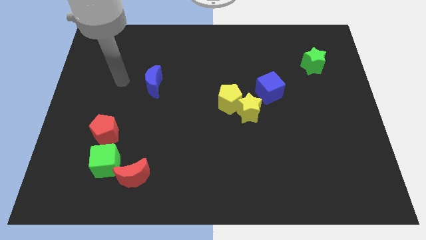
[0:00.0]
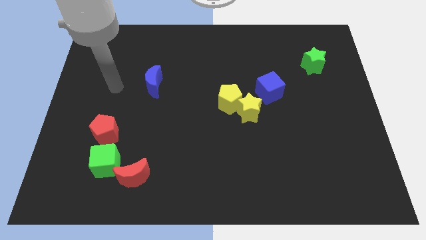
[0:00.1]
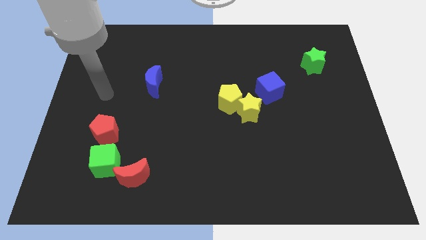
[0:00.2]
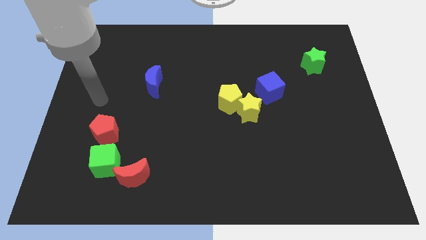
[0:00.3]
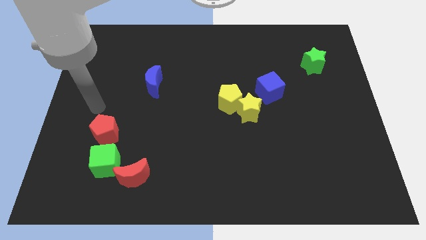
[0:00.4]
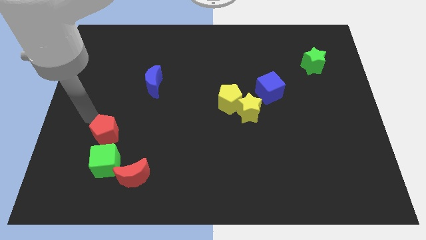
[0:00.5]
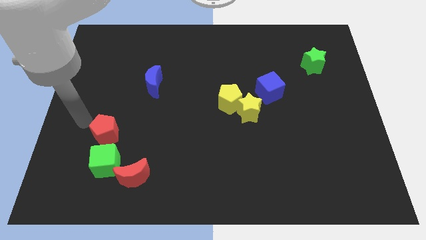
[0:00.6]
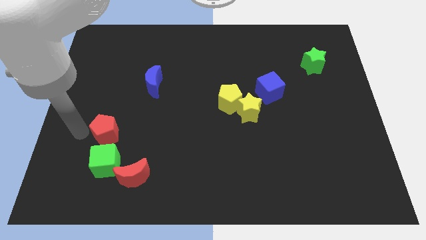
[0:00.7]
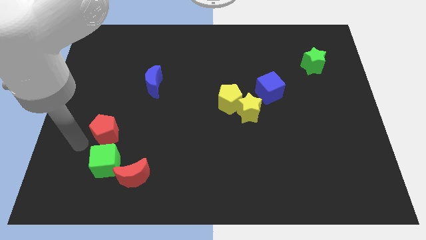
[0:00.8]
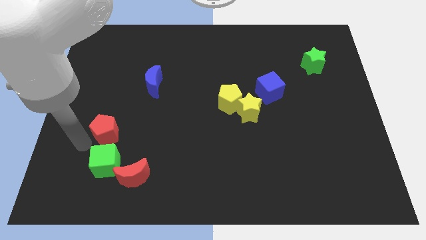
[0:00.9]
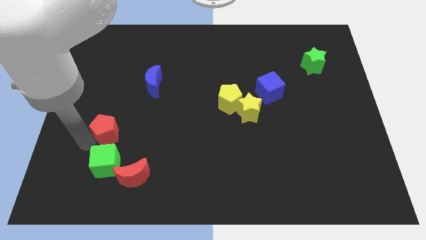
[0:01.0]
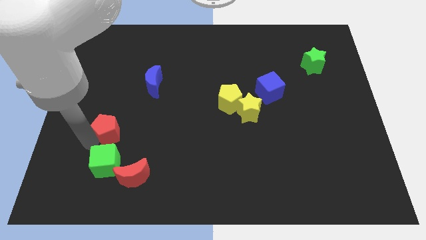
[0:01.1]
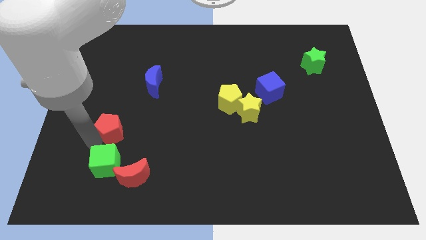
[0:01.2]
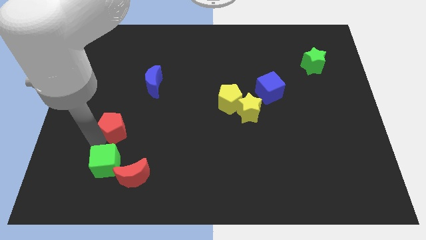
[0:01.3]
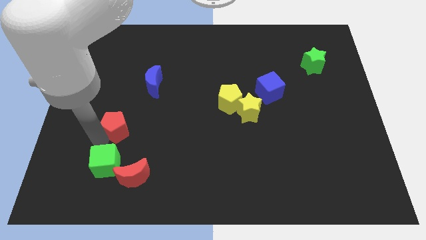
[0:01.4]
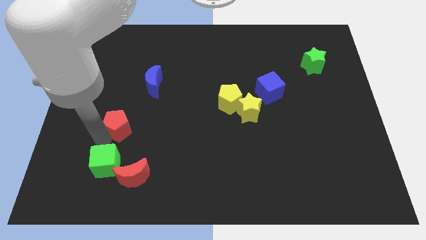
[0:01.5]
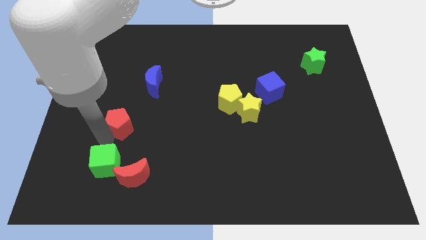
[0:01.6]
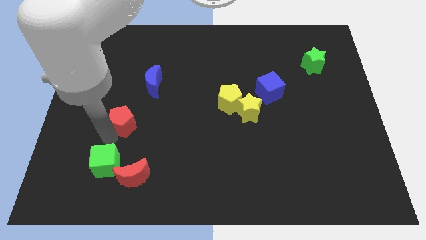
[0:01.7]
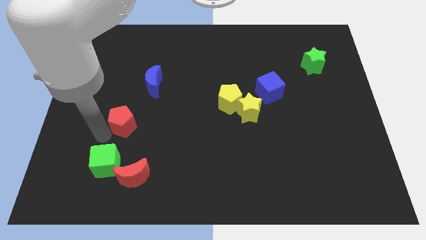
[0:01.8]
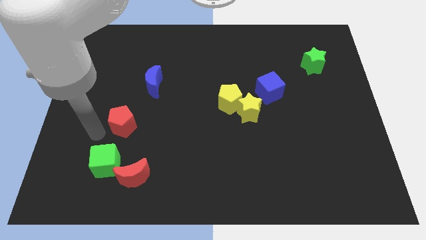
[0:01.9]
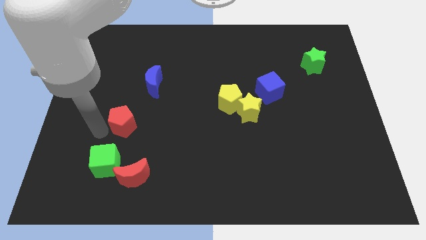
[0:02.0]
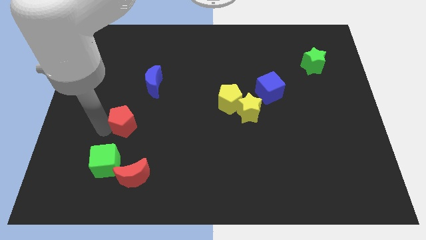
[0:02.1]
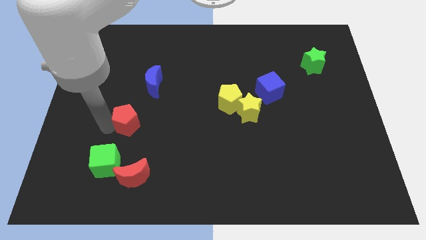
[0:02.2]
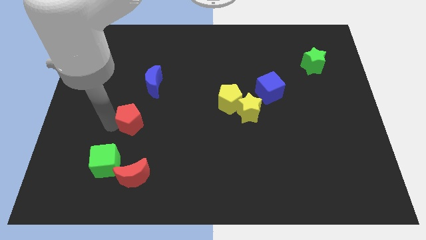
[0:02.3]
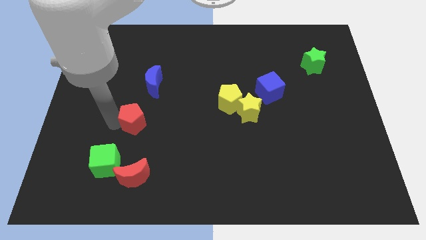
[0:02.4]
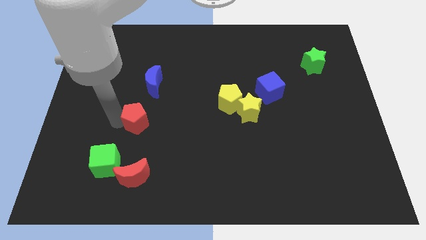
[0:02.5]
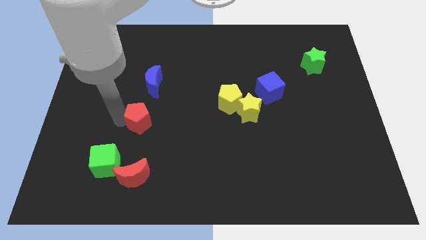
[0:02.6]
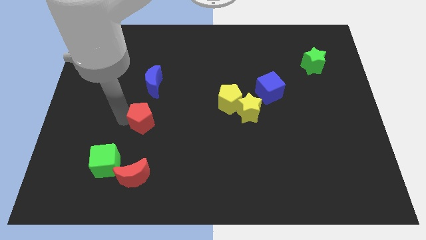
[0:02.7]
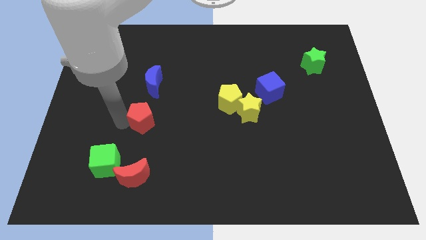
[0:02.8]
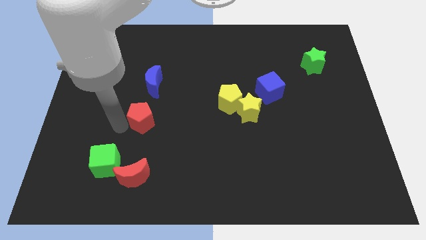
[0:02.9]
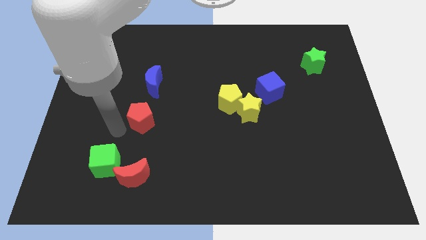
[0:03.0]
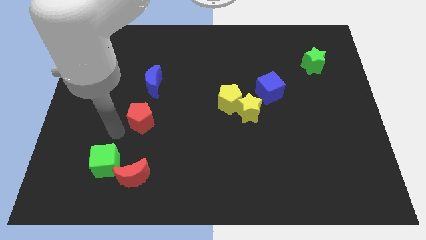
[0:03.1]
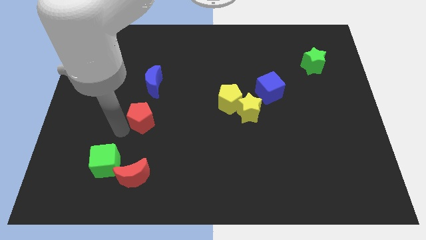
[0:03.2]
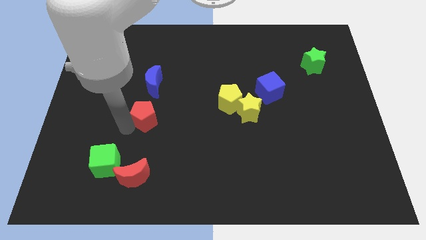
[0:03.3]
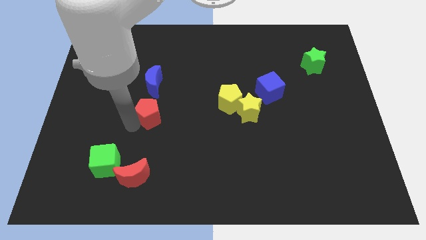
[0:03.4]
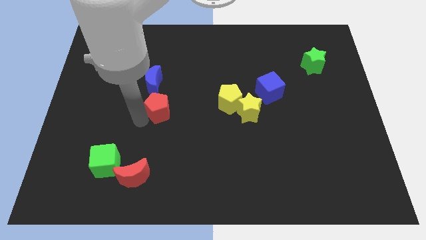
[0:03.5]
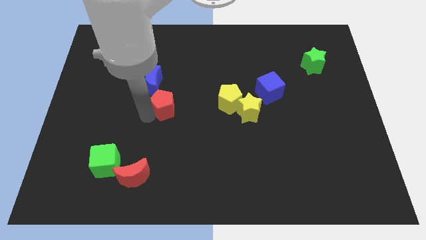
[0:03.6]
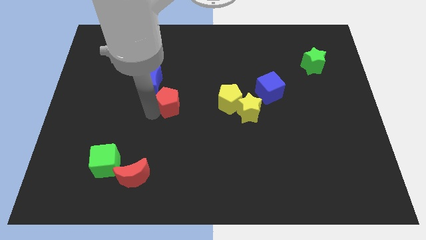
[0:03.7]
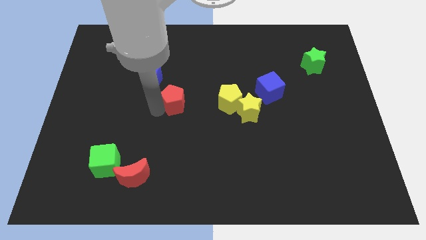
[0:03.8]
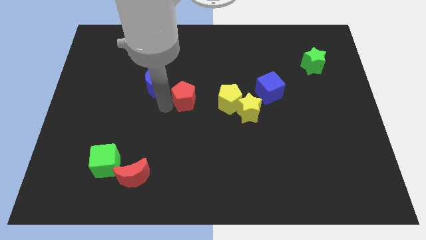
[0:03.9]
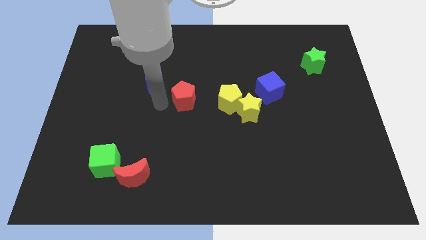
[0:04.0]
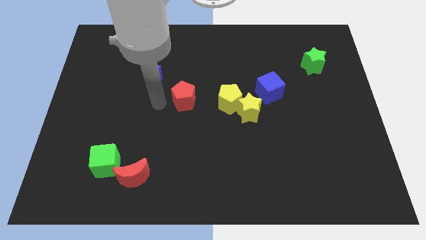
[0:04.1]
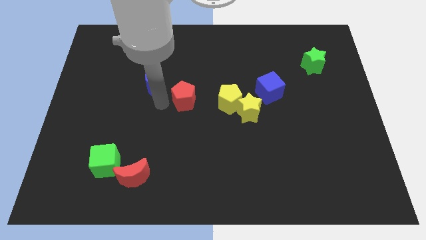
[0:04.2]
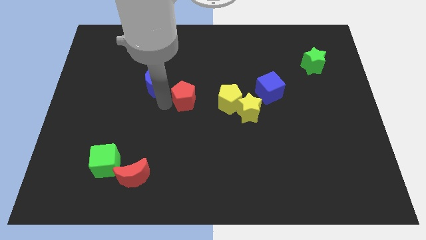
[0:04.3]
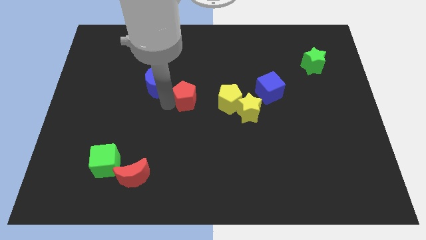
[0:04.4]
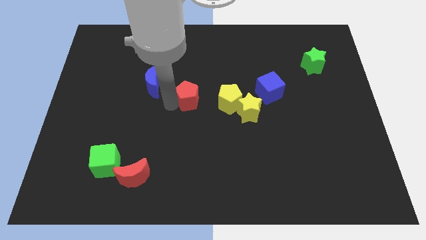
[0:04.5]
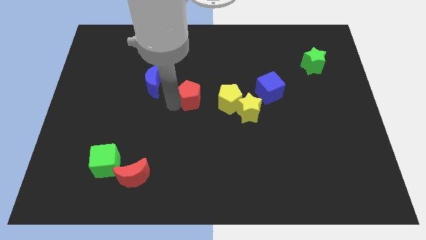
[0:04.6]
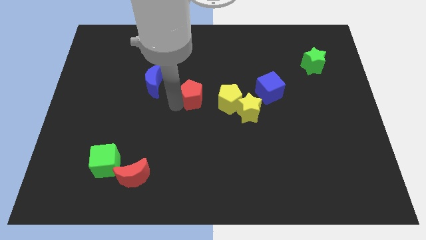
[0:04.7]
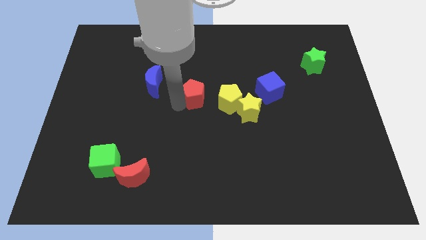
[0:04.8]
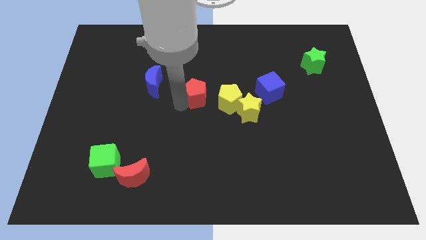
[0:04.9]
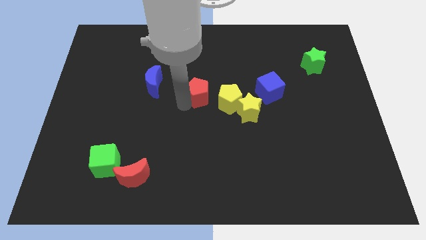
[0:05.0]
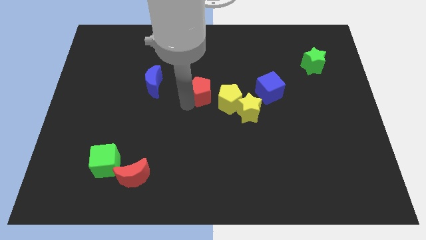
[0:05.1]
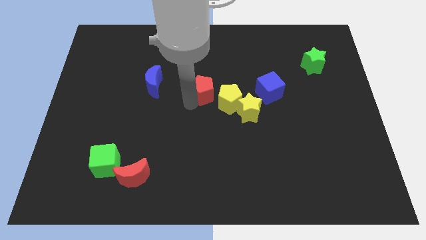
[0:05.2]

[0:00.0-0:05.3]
push the red pentagon to the left of the blue cube

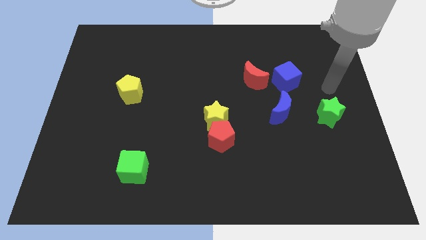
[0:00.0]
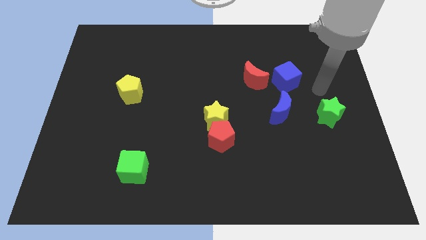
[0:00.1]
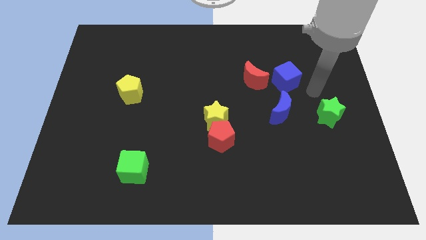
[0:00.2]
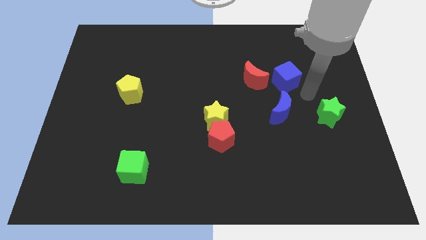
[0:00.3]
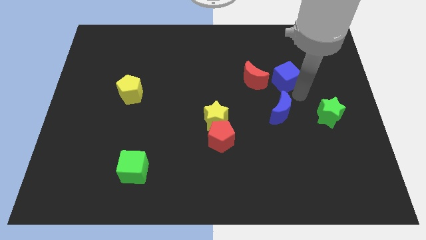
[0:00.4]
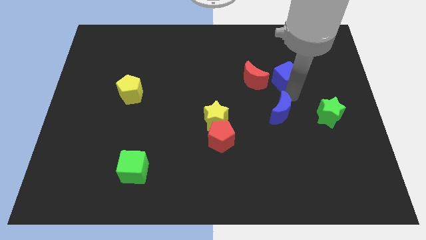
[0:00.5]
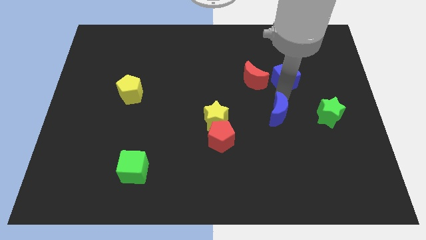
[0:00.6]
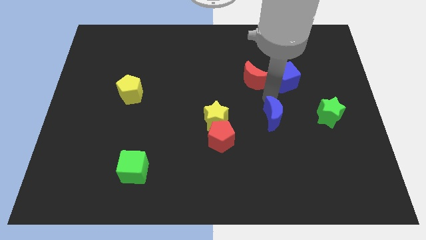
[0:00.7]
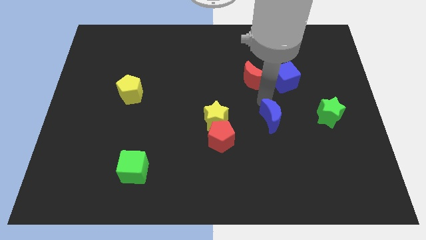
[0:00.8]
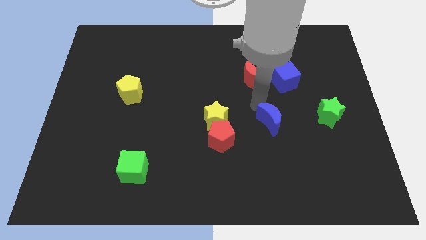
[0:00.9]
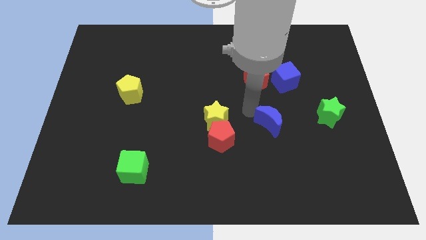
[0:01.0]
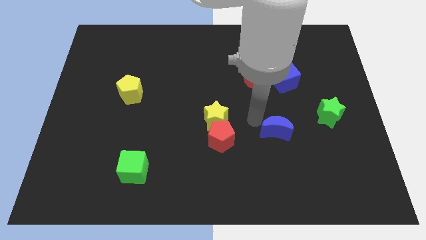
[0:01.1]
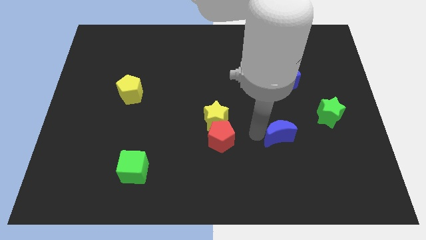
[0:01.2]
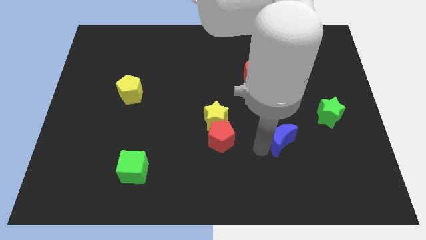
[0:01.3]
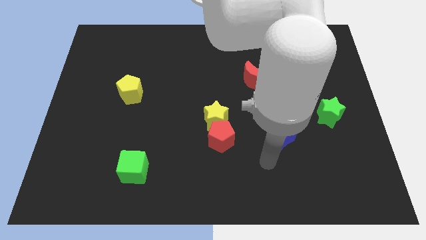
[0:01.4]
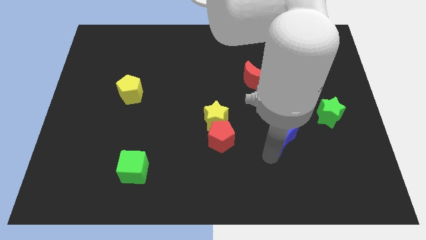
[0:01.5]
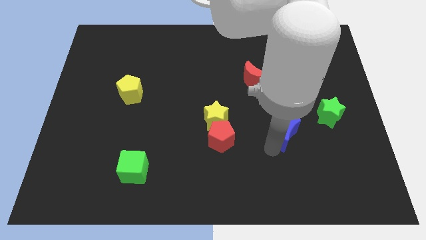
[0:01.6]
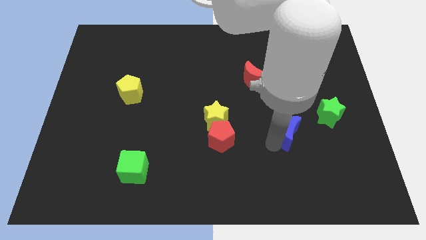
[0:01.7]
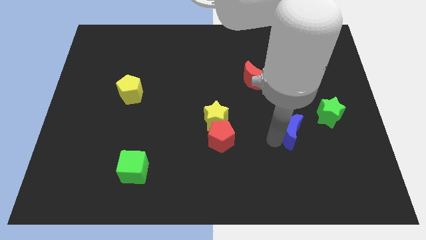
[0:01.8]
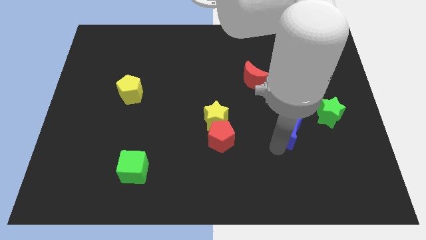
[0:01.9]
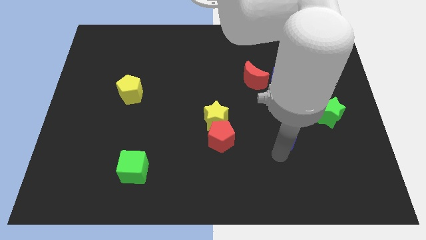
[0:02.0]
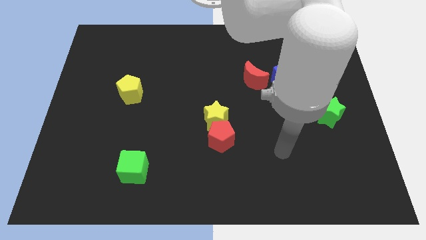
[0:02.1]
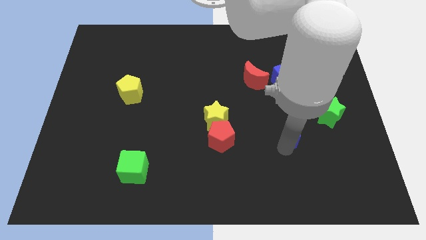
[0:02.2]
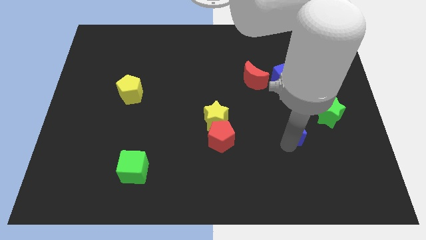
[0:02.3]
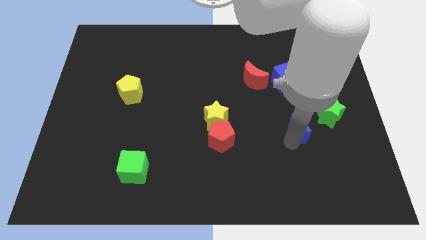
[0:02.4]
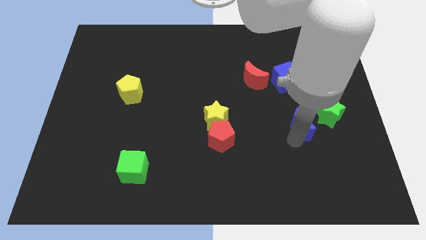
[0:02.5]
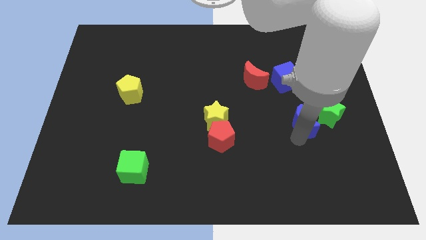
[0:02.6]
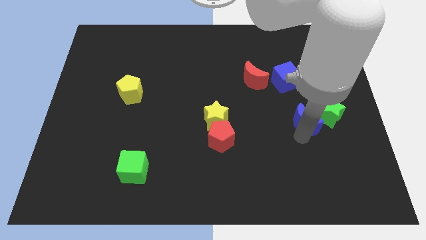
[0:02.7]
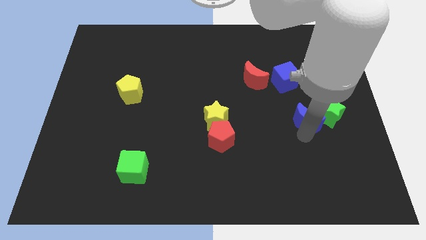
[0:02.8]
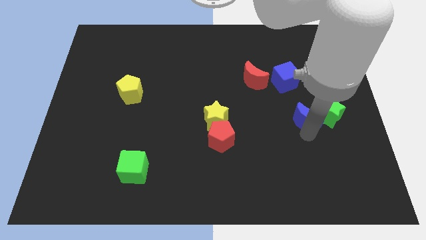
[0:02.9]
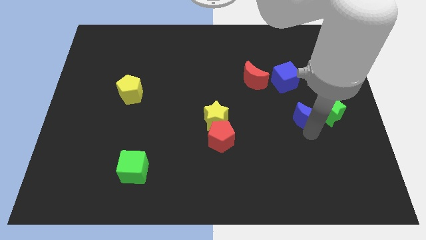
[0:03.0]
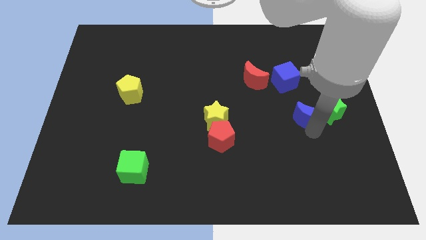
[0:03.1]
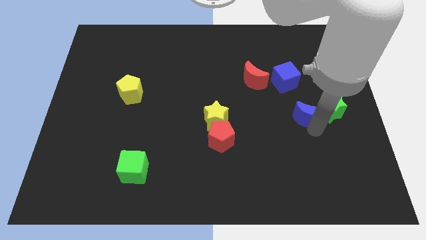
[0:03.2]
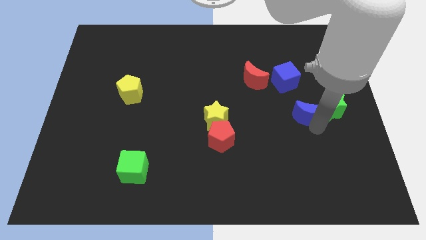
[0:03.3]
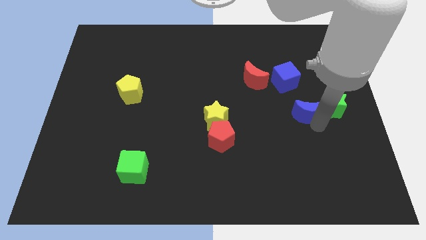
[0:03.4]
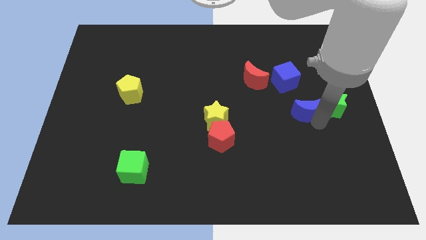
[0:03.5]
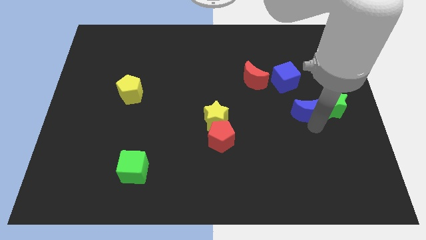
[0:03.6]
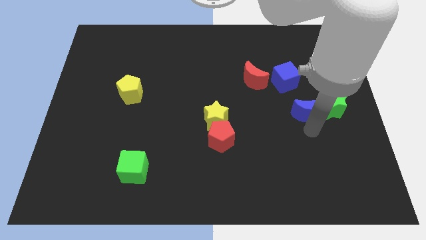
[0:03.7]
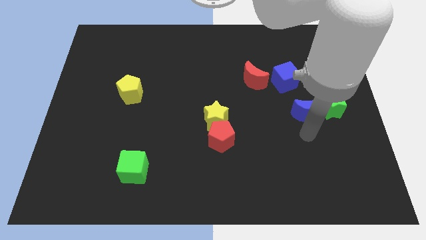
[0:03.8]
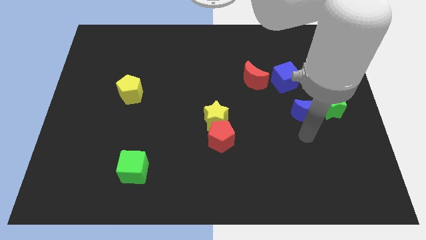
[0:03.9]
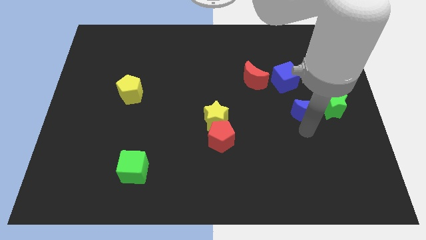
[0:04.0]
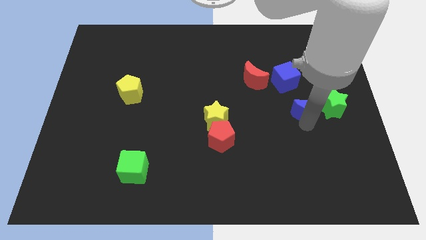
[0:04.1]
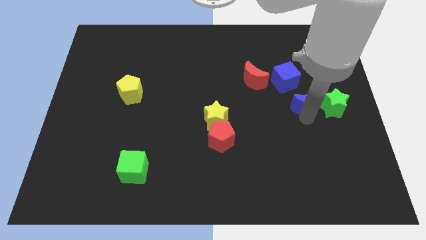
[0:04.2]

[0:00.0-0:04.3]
slide the blue moon to the top left of the green star
